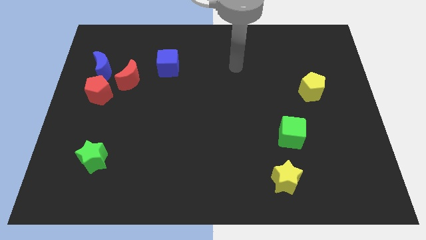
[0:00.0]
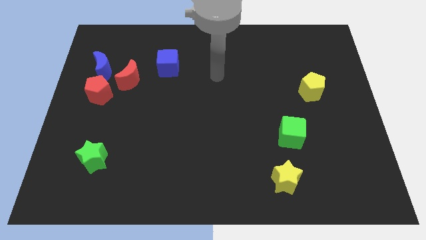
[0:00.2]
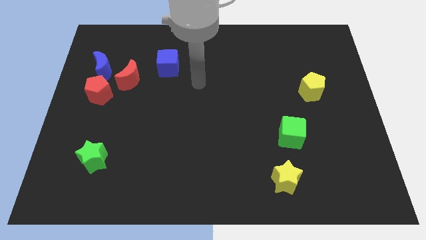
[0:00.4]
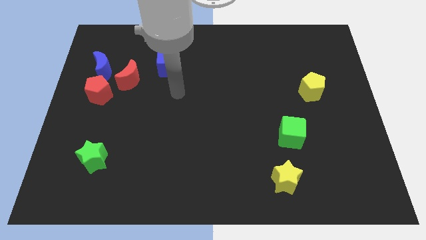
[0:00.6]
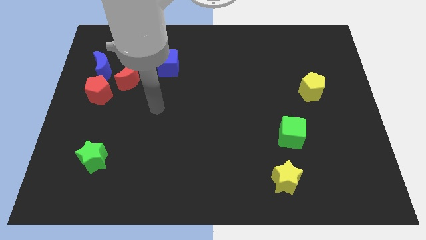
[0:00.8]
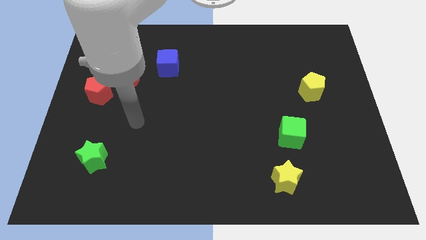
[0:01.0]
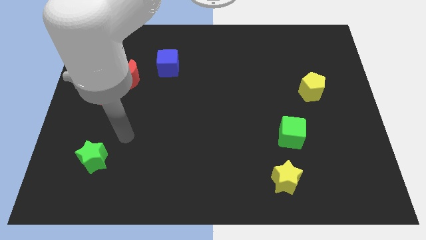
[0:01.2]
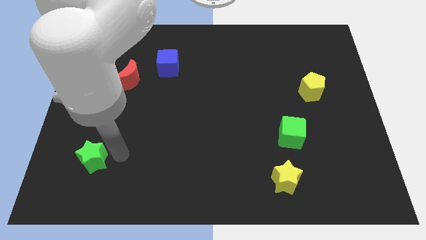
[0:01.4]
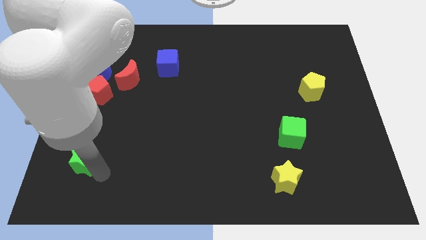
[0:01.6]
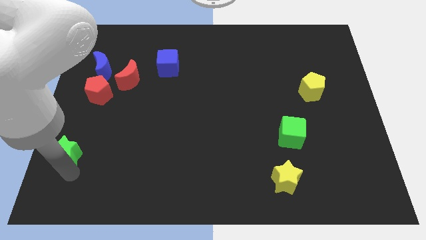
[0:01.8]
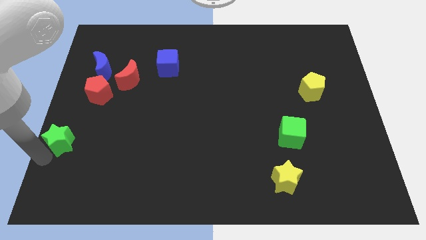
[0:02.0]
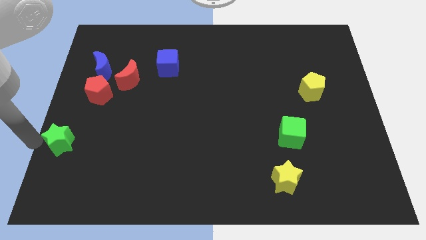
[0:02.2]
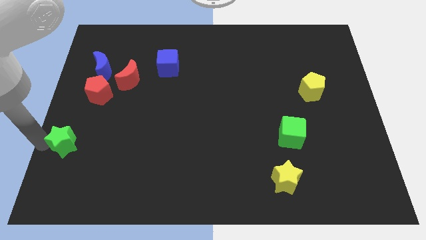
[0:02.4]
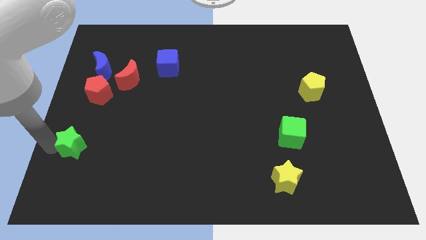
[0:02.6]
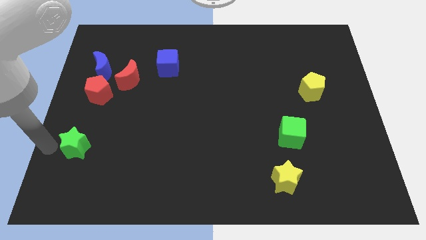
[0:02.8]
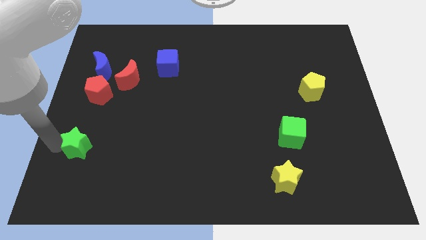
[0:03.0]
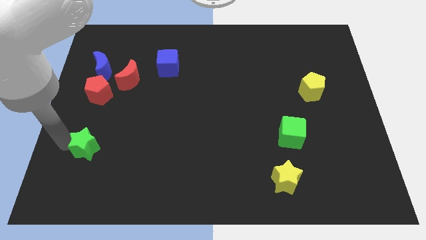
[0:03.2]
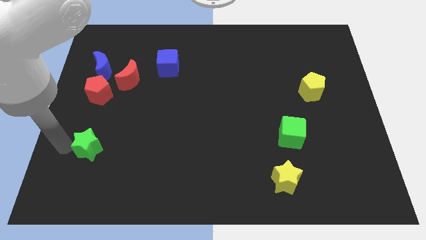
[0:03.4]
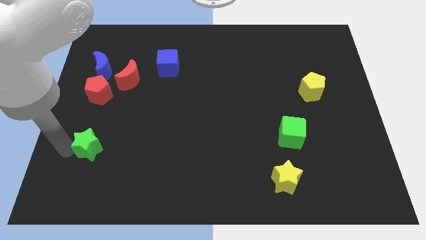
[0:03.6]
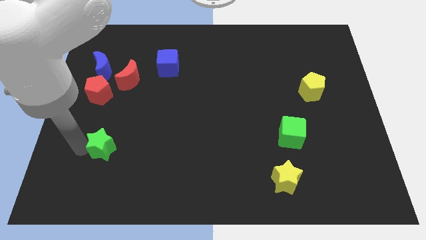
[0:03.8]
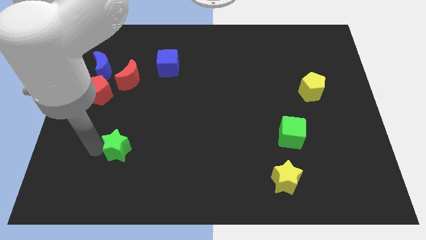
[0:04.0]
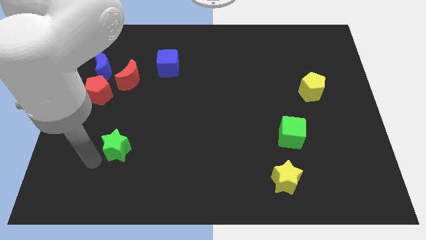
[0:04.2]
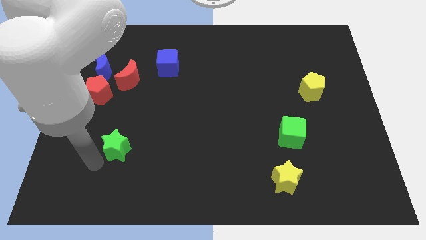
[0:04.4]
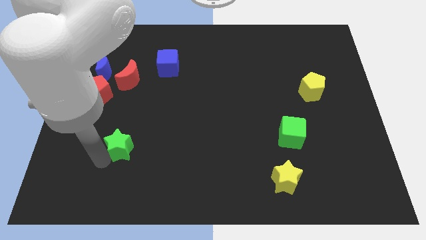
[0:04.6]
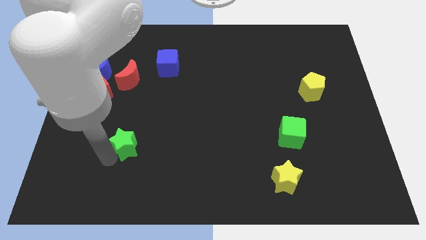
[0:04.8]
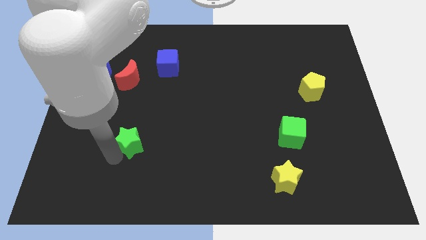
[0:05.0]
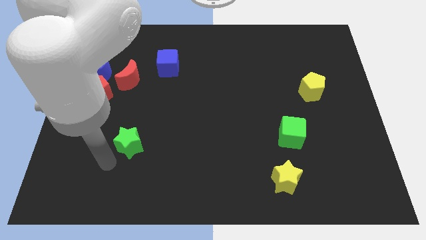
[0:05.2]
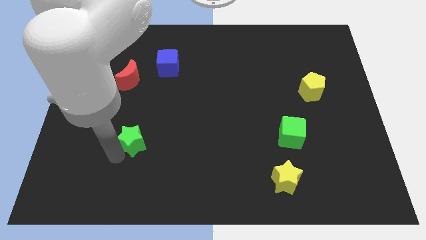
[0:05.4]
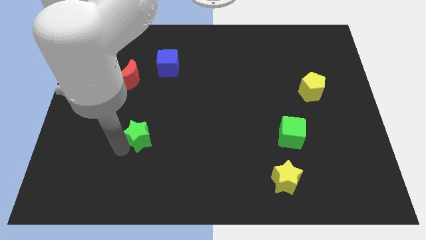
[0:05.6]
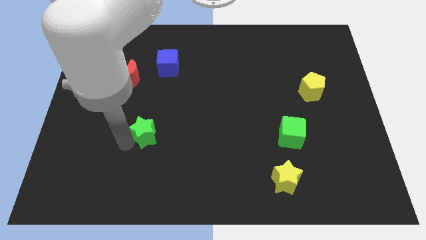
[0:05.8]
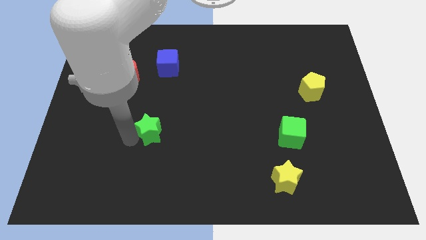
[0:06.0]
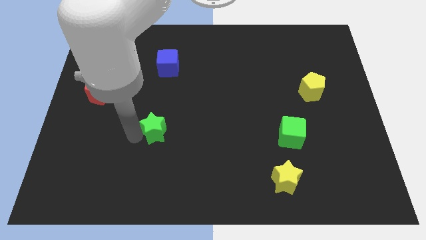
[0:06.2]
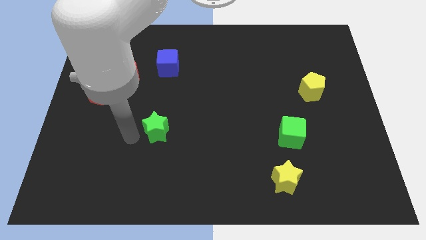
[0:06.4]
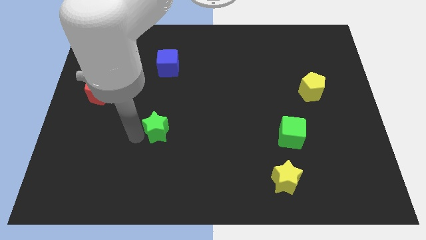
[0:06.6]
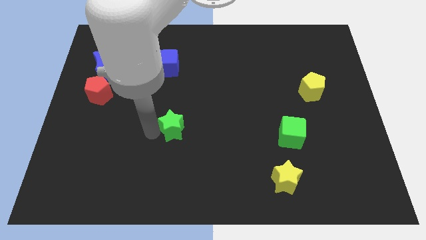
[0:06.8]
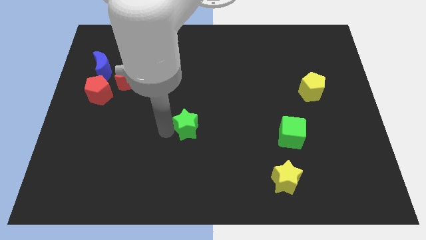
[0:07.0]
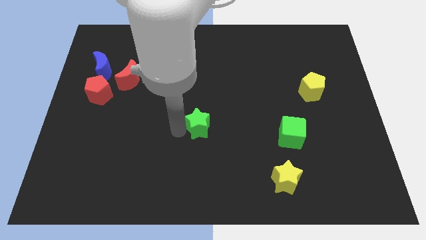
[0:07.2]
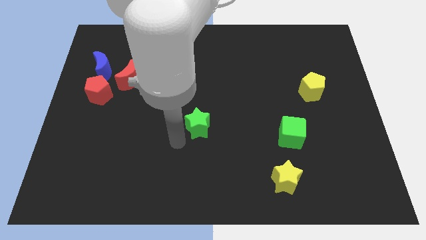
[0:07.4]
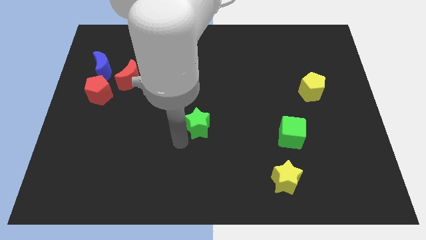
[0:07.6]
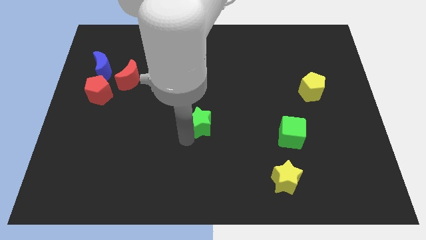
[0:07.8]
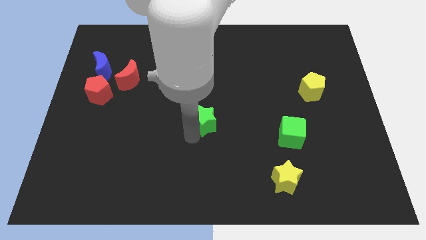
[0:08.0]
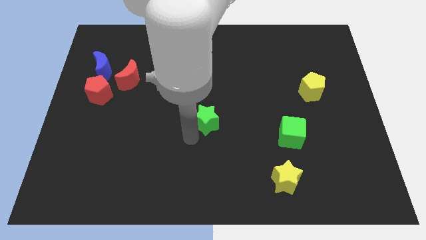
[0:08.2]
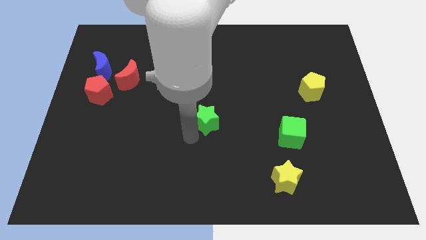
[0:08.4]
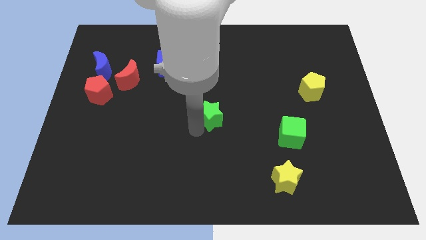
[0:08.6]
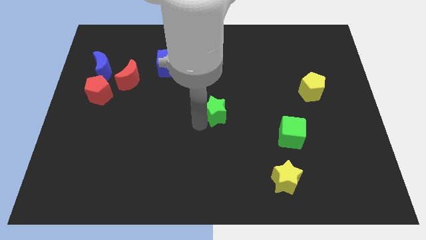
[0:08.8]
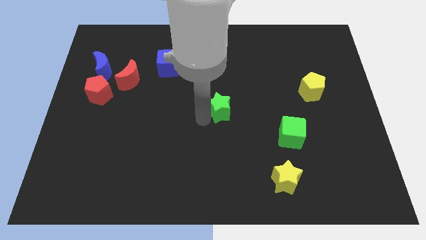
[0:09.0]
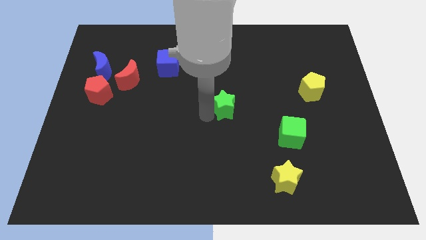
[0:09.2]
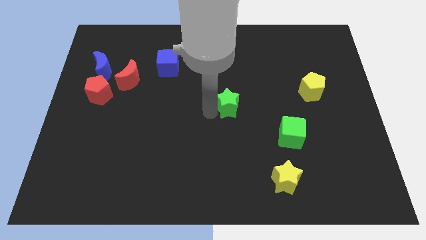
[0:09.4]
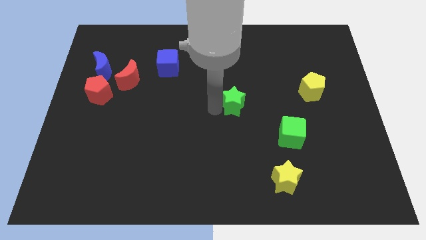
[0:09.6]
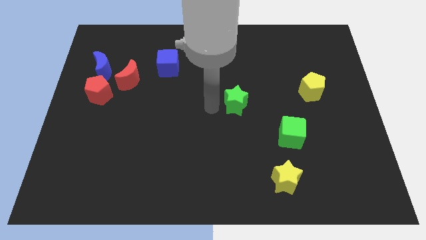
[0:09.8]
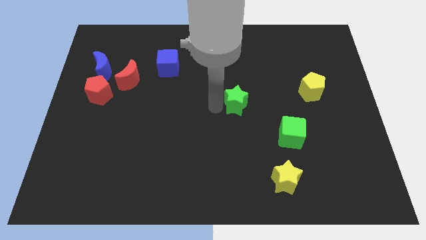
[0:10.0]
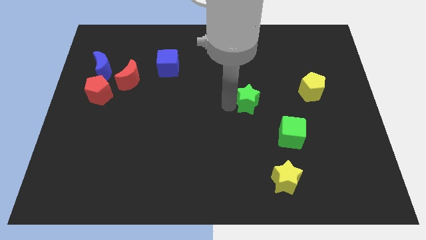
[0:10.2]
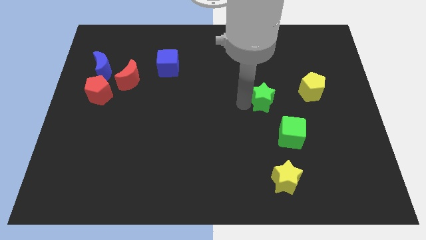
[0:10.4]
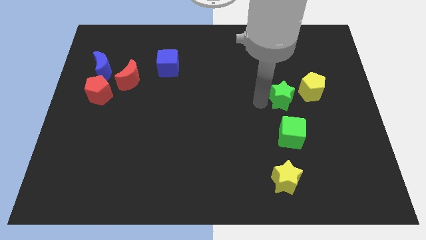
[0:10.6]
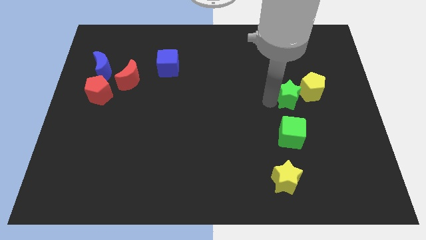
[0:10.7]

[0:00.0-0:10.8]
push the green star to the yellow pentagon
